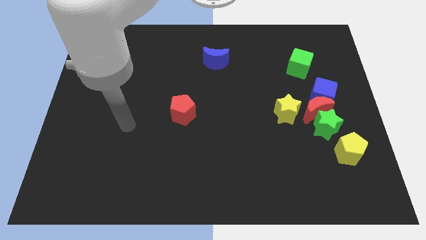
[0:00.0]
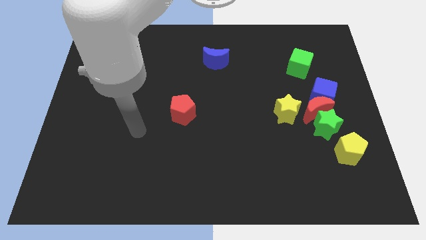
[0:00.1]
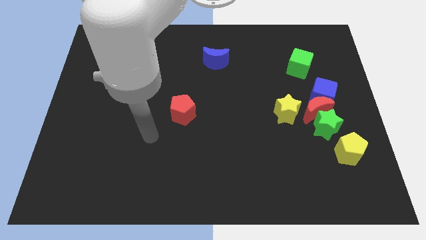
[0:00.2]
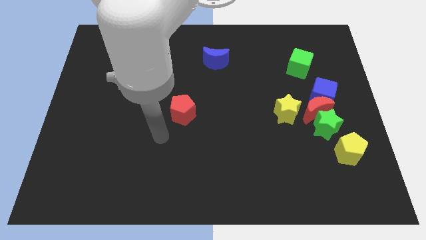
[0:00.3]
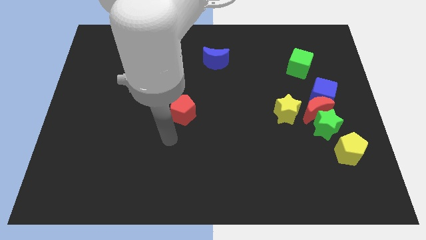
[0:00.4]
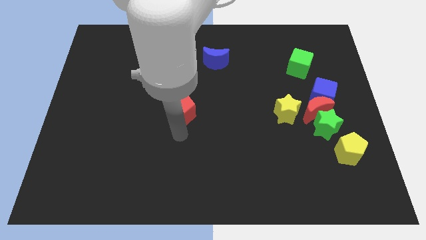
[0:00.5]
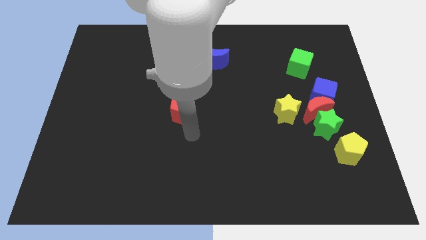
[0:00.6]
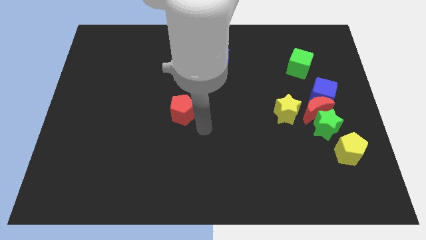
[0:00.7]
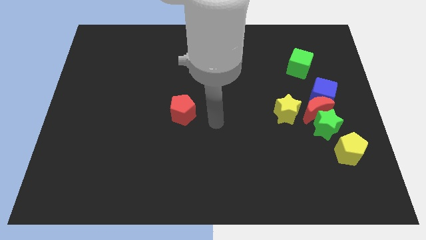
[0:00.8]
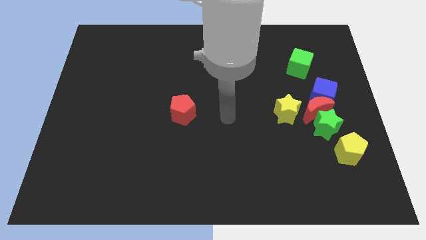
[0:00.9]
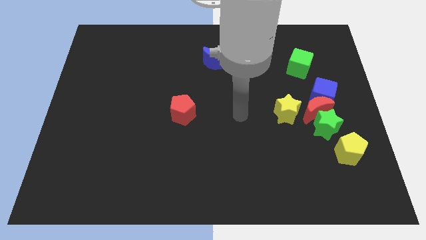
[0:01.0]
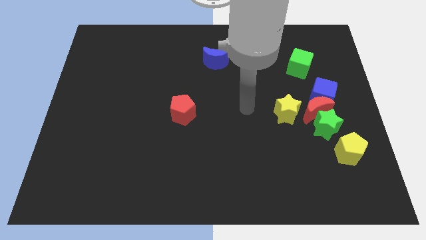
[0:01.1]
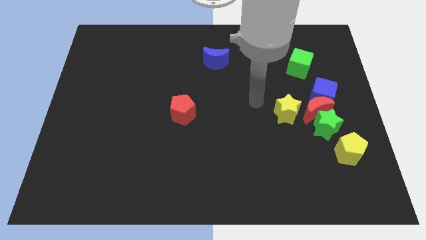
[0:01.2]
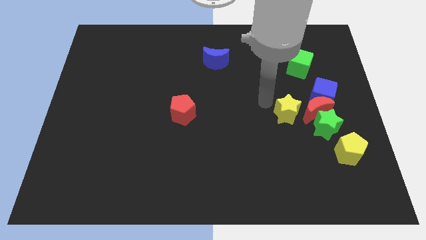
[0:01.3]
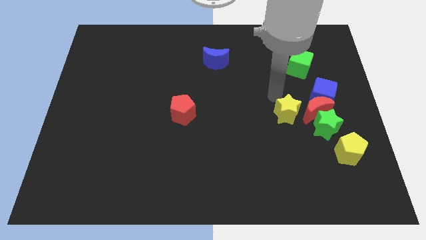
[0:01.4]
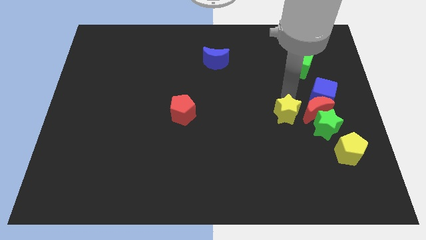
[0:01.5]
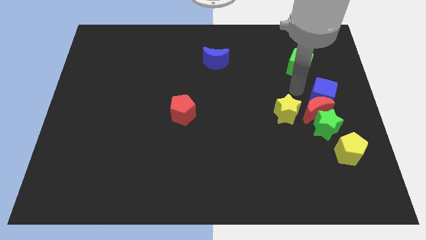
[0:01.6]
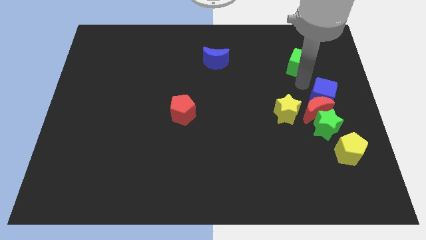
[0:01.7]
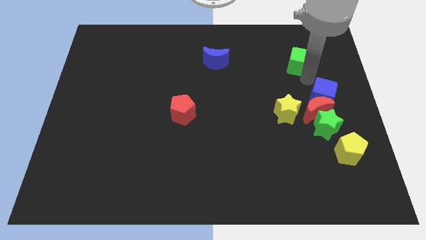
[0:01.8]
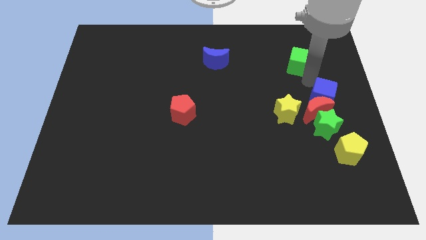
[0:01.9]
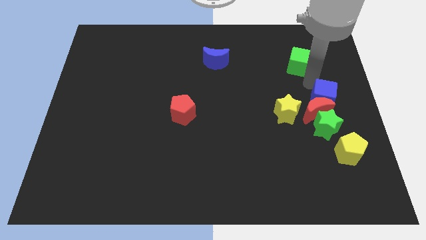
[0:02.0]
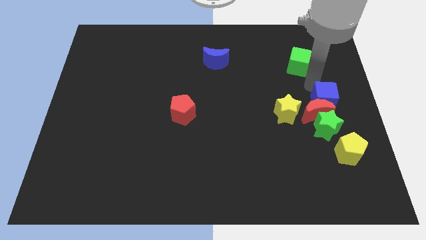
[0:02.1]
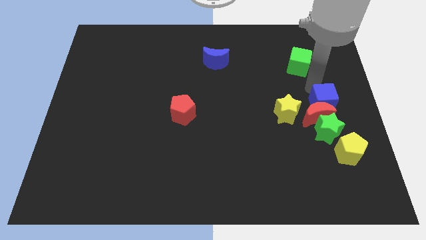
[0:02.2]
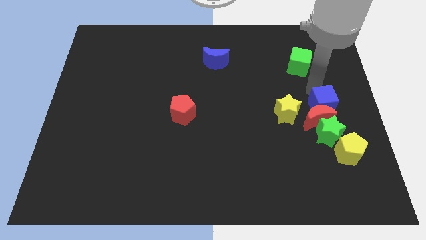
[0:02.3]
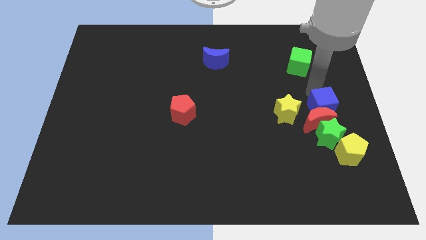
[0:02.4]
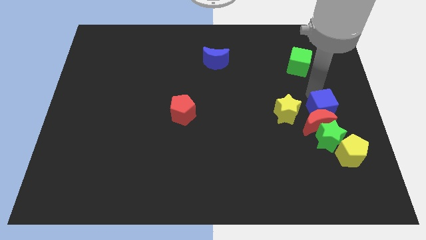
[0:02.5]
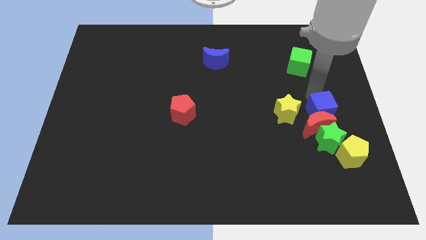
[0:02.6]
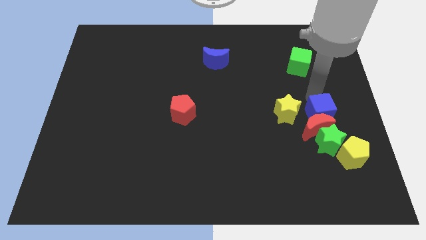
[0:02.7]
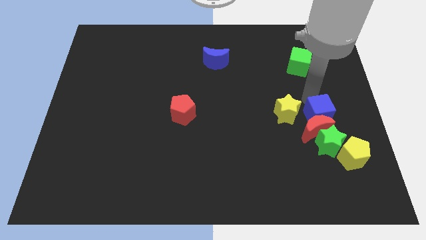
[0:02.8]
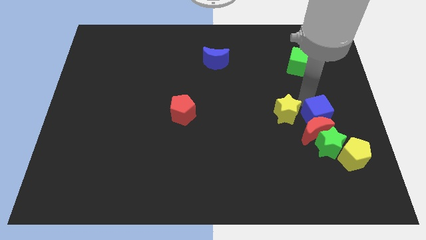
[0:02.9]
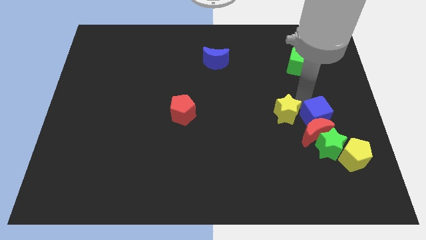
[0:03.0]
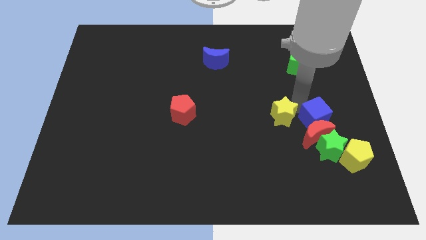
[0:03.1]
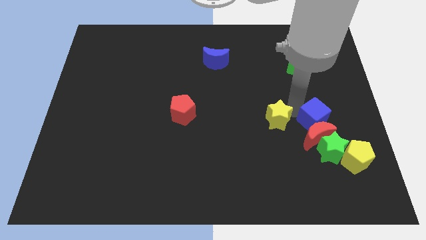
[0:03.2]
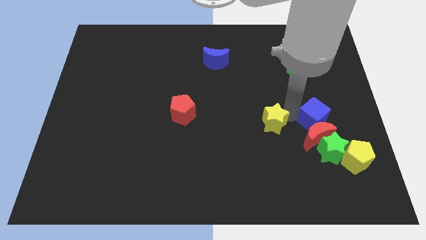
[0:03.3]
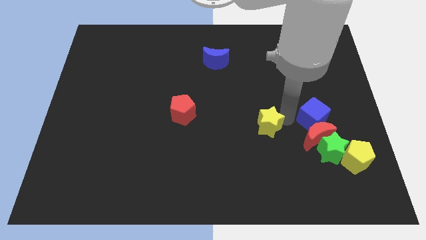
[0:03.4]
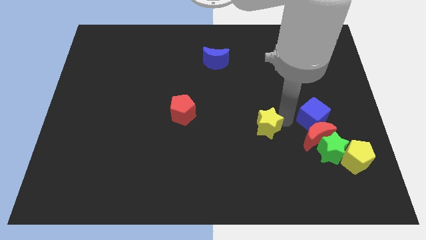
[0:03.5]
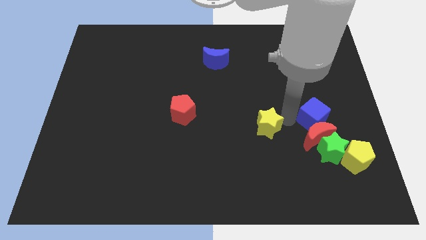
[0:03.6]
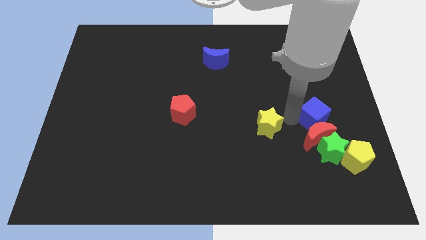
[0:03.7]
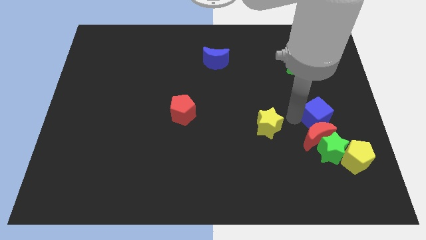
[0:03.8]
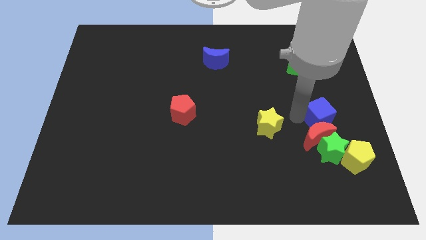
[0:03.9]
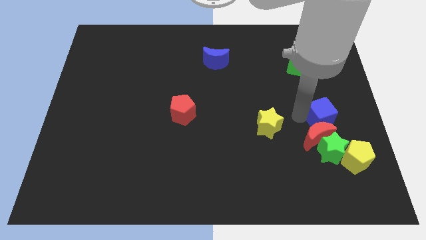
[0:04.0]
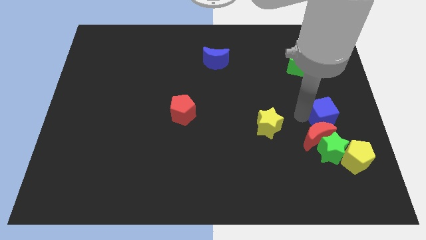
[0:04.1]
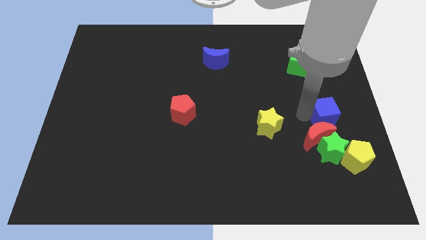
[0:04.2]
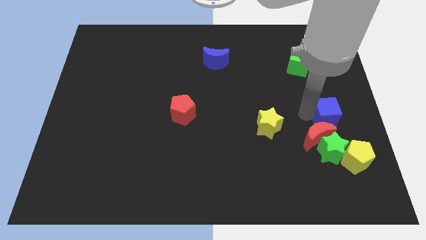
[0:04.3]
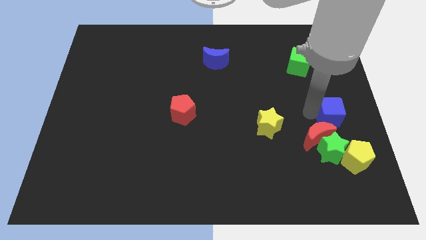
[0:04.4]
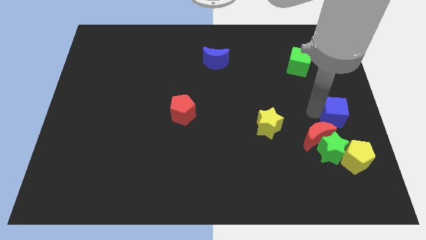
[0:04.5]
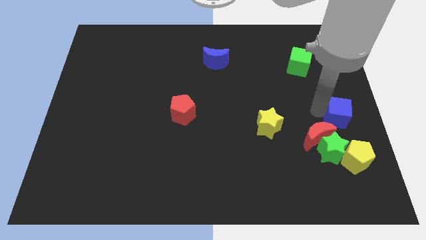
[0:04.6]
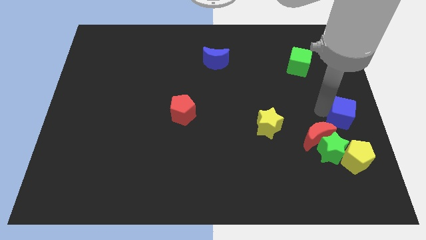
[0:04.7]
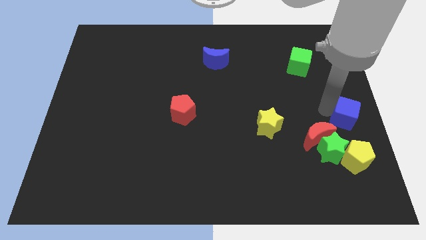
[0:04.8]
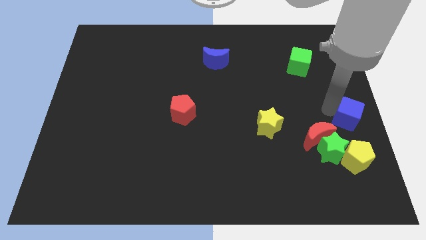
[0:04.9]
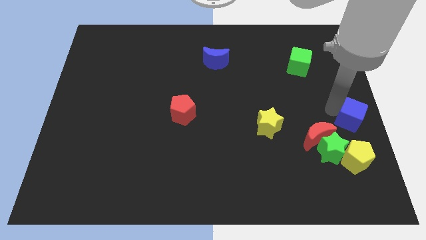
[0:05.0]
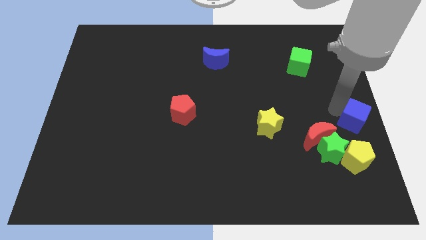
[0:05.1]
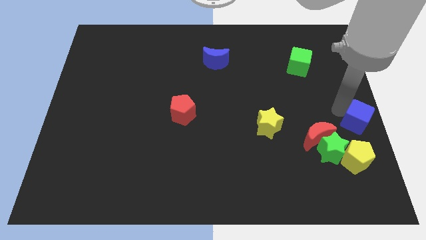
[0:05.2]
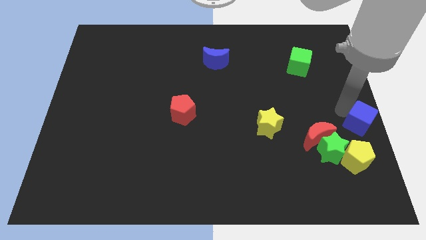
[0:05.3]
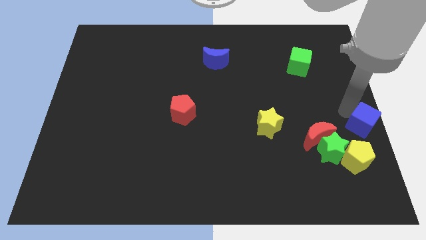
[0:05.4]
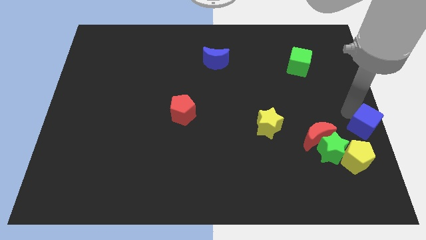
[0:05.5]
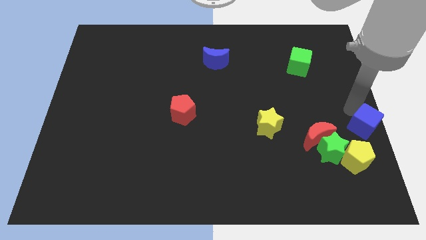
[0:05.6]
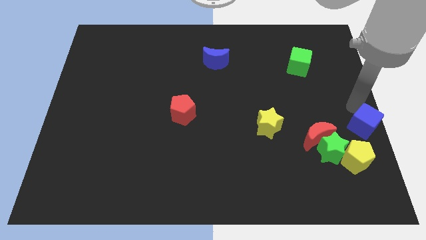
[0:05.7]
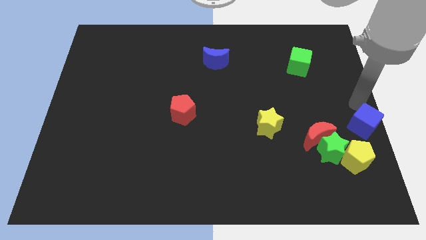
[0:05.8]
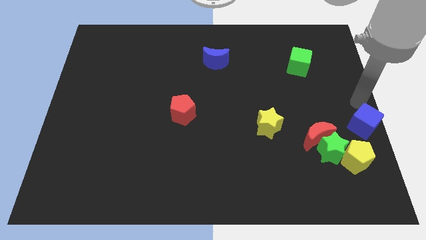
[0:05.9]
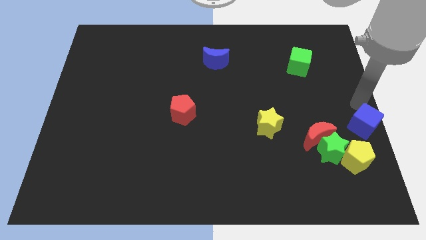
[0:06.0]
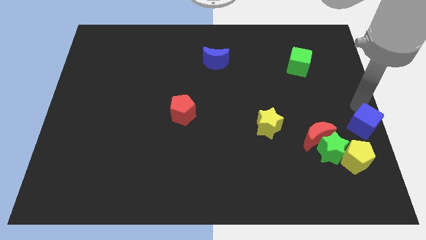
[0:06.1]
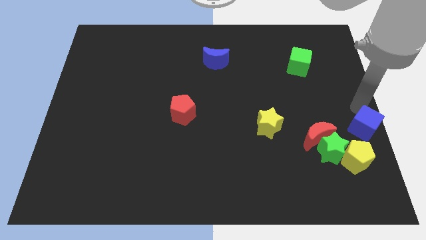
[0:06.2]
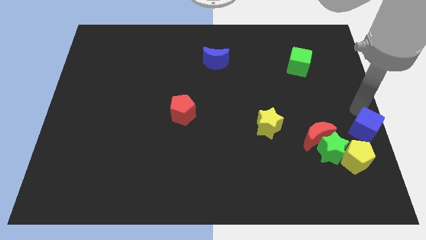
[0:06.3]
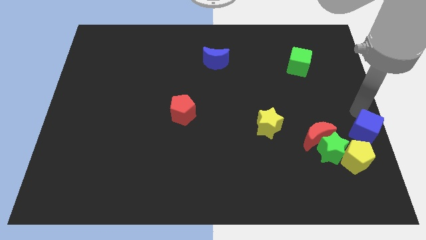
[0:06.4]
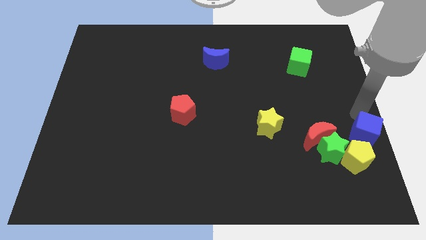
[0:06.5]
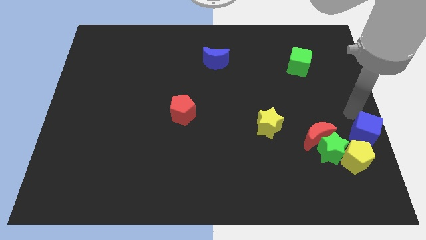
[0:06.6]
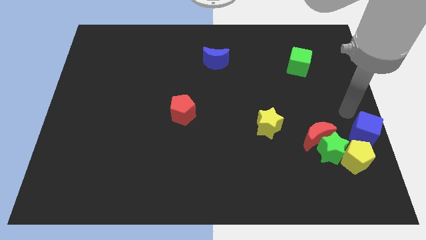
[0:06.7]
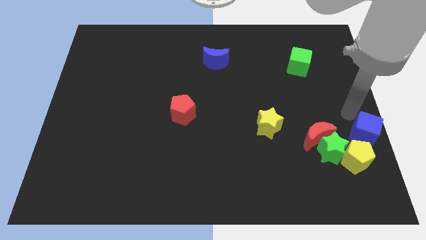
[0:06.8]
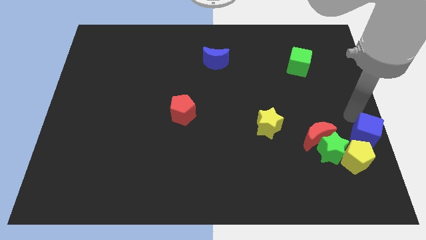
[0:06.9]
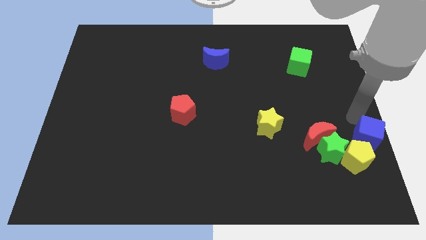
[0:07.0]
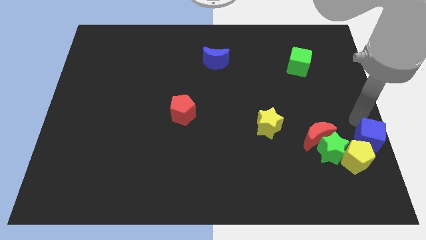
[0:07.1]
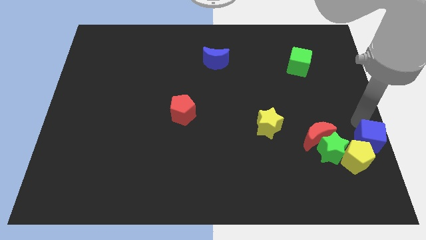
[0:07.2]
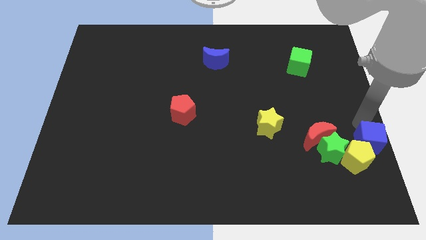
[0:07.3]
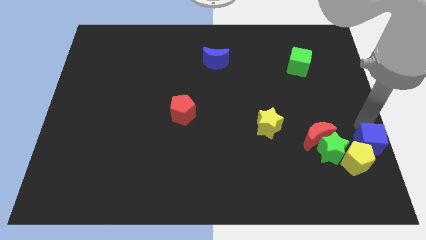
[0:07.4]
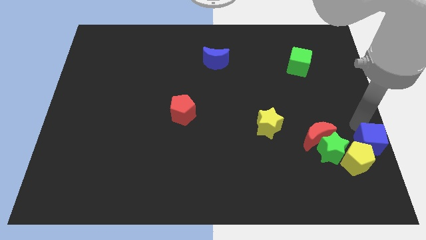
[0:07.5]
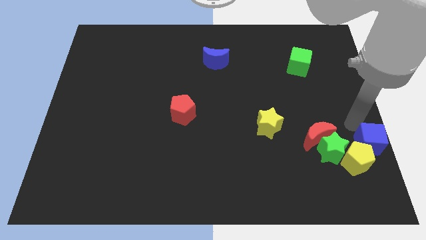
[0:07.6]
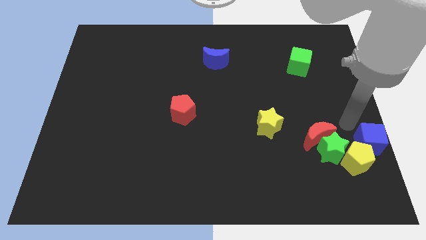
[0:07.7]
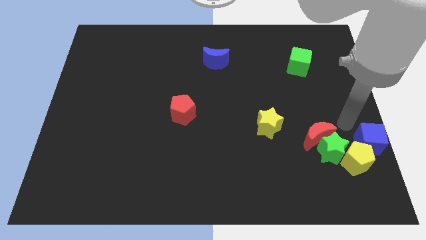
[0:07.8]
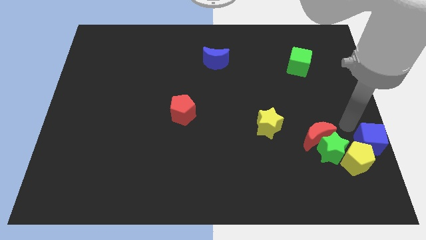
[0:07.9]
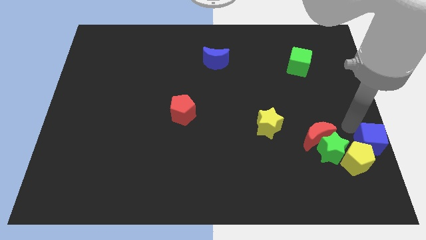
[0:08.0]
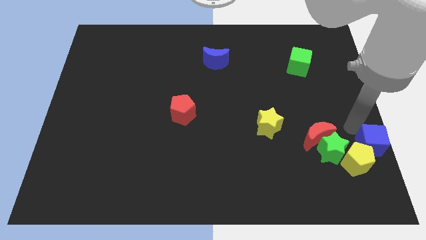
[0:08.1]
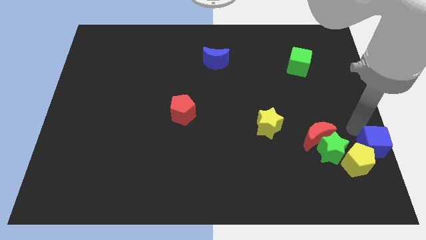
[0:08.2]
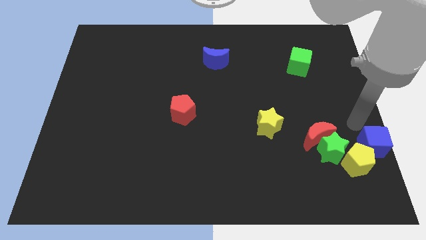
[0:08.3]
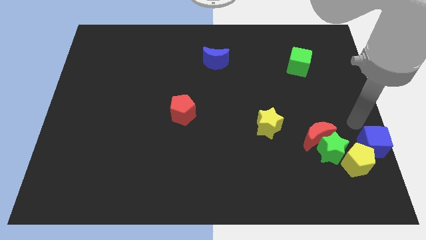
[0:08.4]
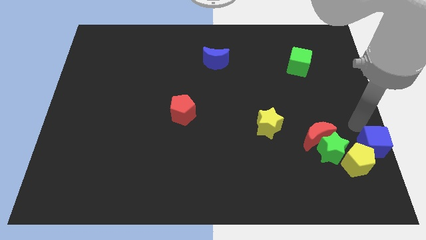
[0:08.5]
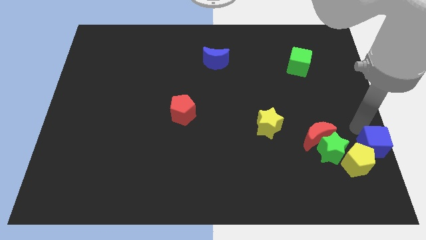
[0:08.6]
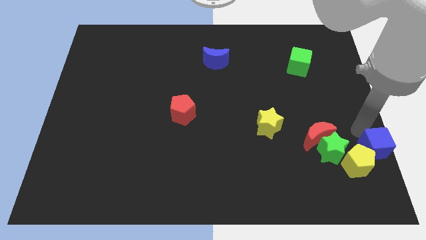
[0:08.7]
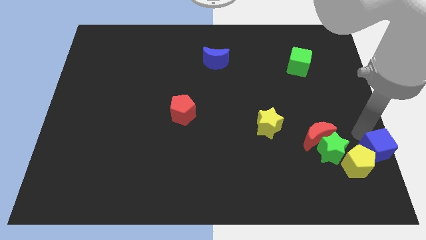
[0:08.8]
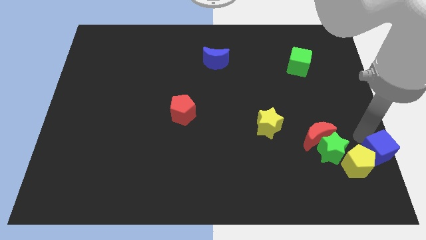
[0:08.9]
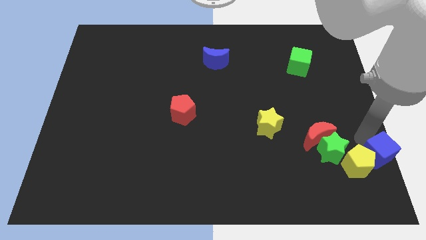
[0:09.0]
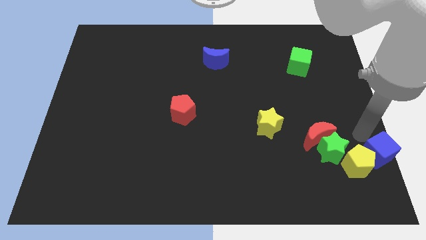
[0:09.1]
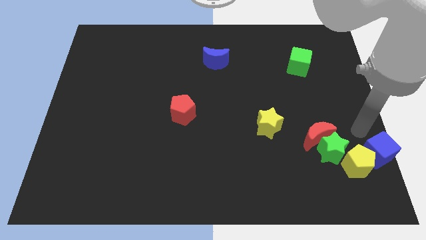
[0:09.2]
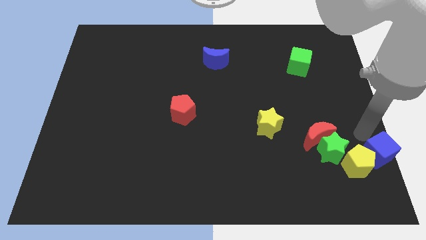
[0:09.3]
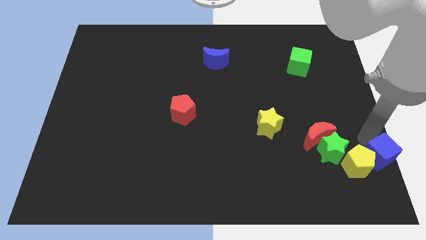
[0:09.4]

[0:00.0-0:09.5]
slide the blue cube to the lower right corner
